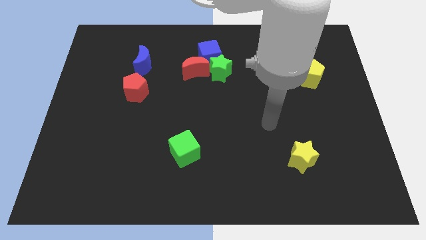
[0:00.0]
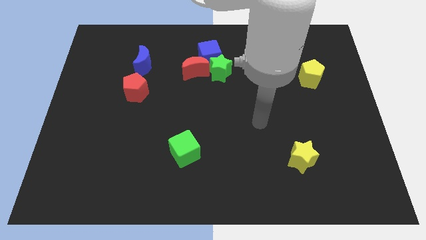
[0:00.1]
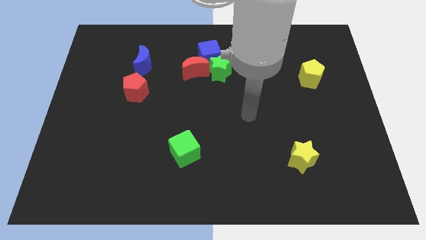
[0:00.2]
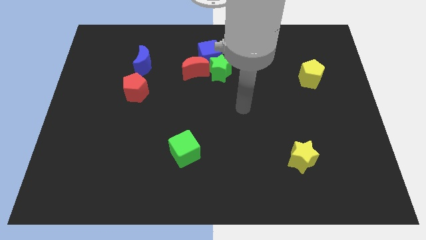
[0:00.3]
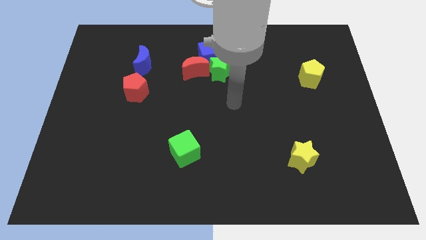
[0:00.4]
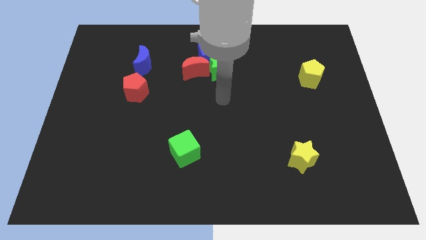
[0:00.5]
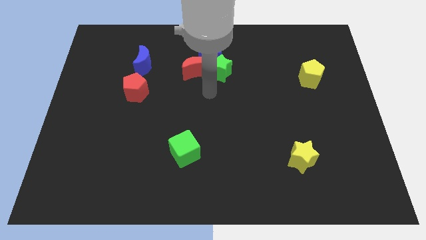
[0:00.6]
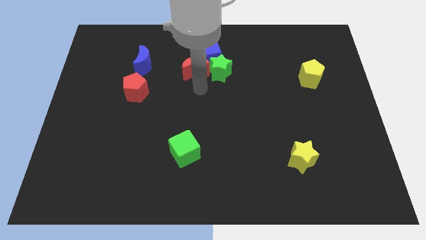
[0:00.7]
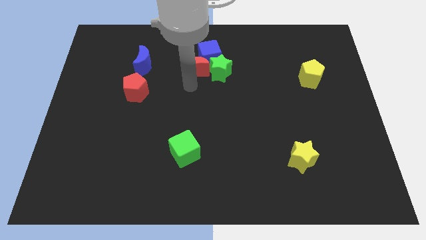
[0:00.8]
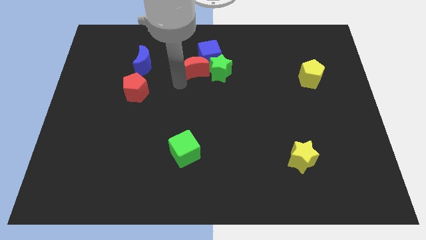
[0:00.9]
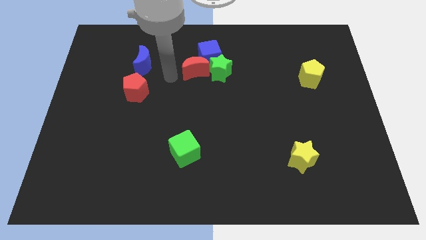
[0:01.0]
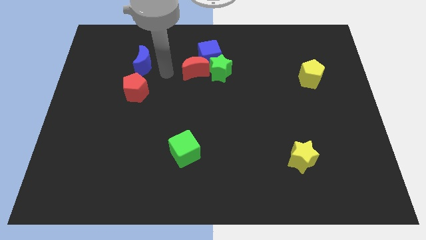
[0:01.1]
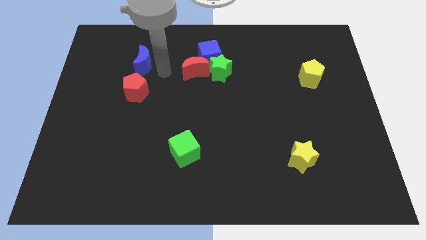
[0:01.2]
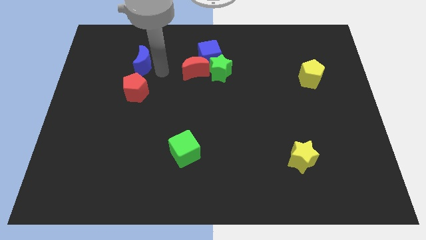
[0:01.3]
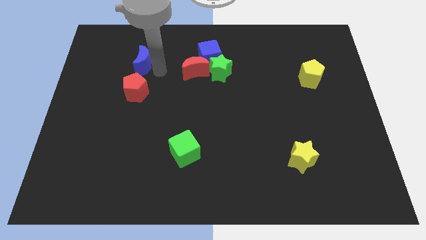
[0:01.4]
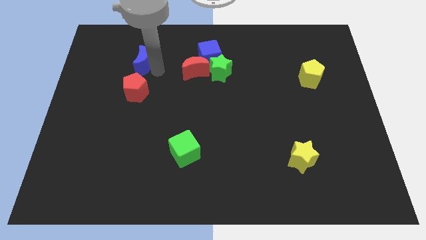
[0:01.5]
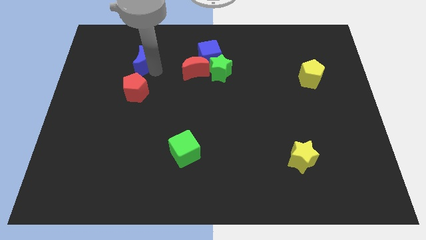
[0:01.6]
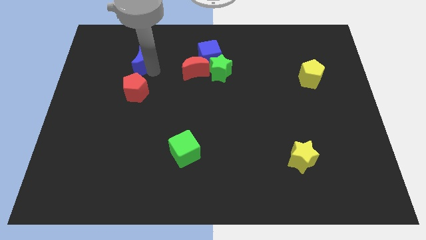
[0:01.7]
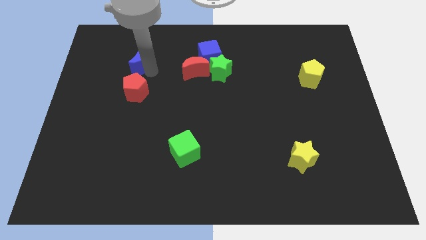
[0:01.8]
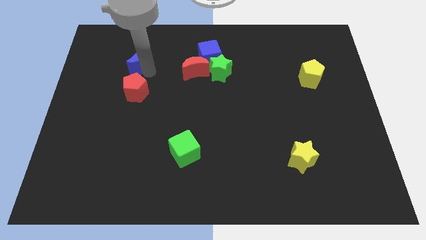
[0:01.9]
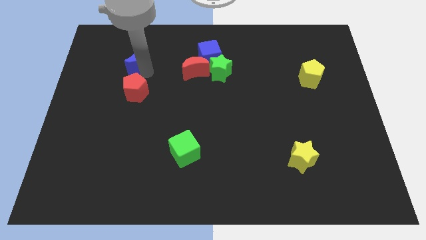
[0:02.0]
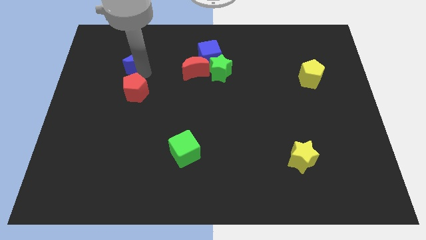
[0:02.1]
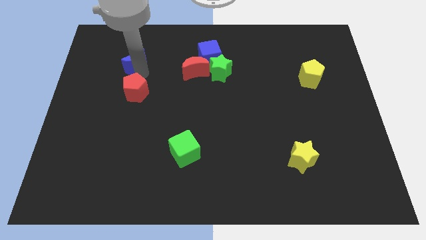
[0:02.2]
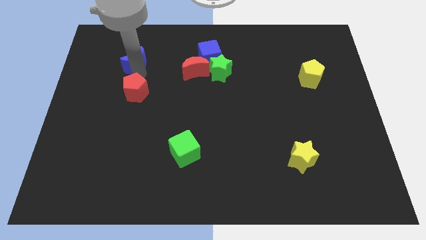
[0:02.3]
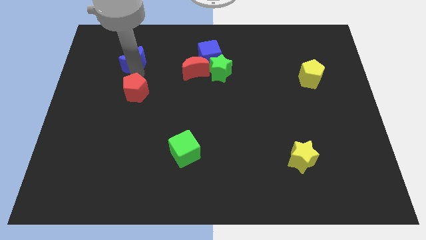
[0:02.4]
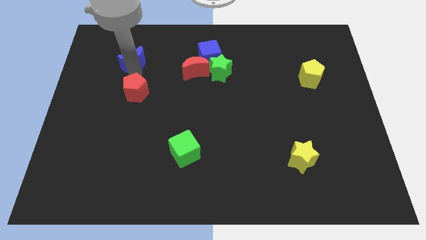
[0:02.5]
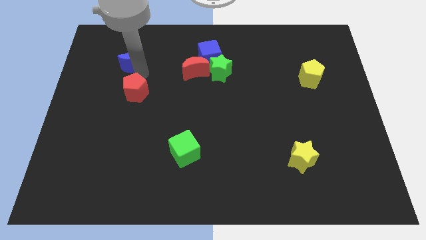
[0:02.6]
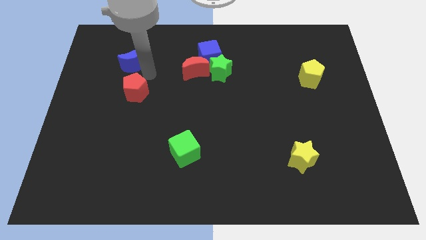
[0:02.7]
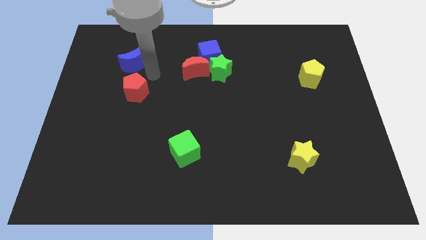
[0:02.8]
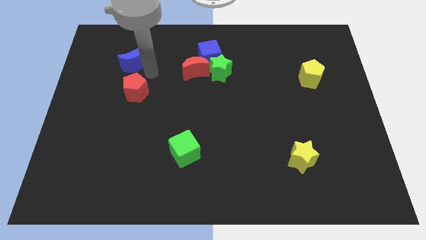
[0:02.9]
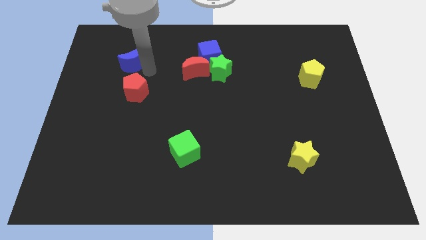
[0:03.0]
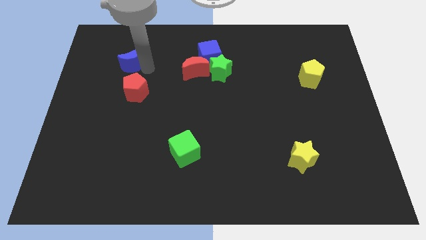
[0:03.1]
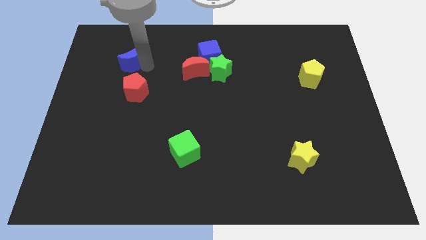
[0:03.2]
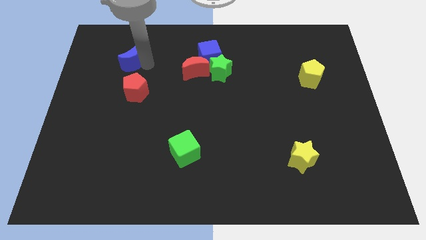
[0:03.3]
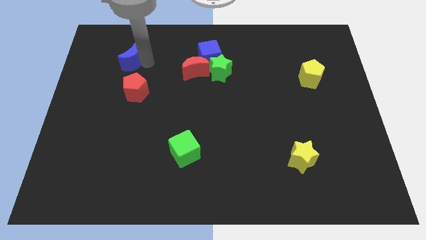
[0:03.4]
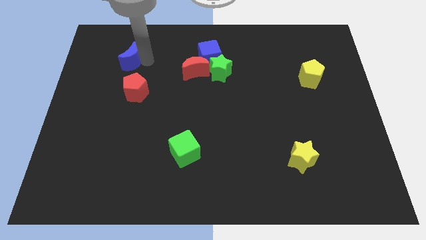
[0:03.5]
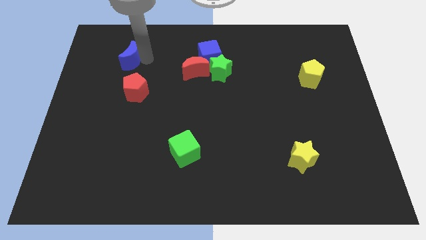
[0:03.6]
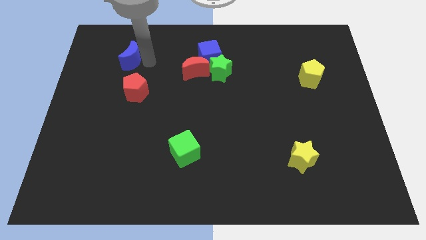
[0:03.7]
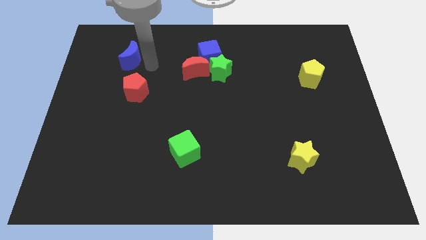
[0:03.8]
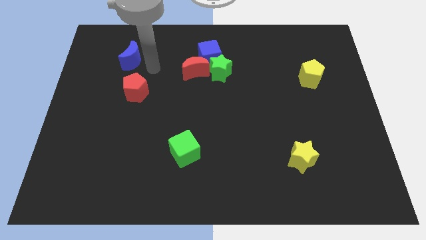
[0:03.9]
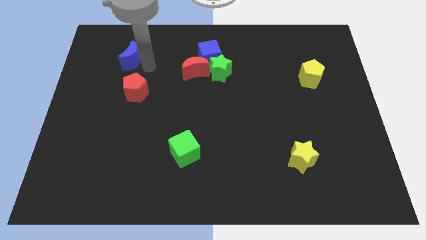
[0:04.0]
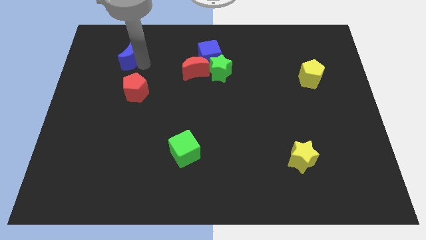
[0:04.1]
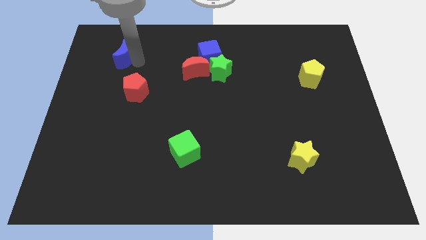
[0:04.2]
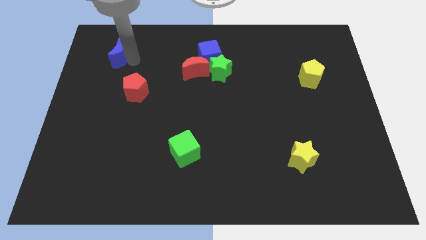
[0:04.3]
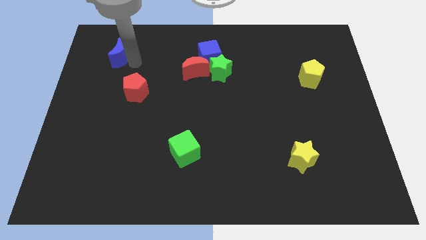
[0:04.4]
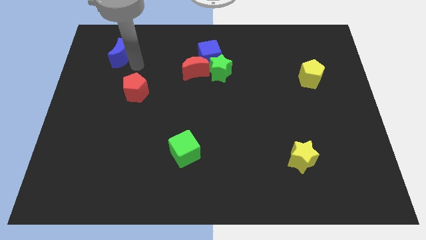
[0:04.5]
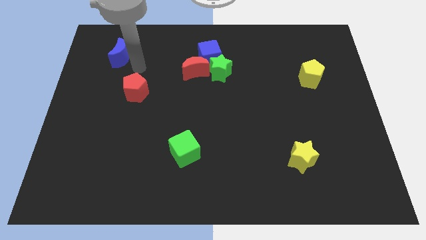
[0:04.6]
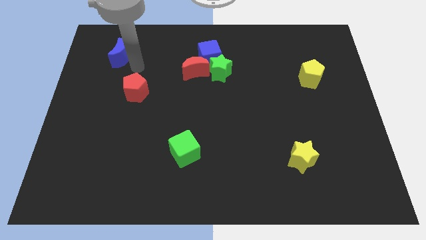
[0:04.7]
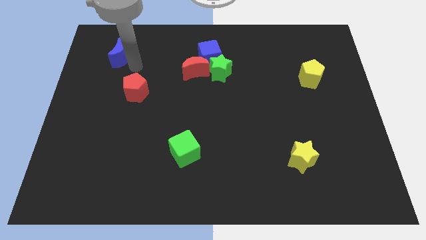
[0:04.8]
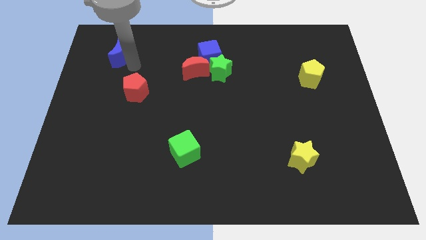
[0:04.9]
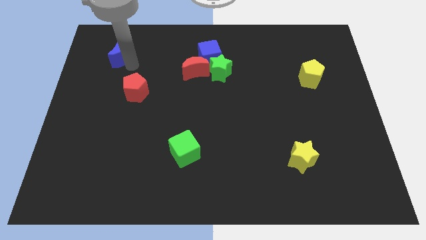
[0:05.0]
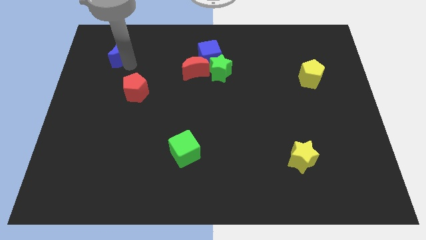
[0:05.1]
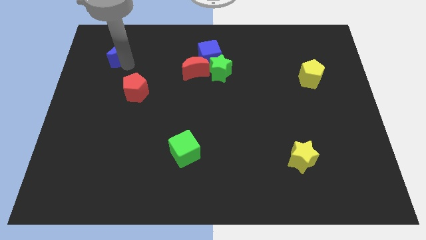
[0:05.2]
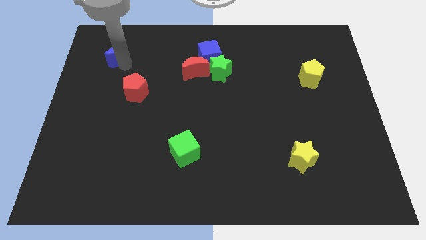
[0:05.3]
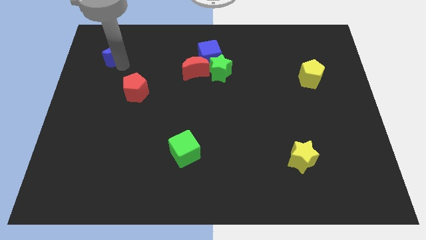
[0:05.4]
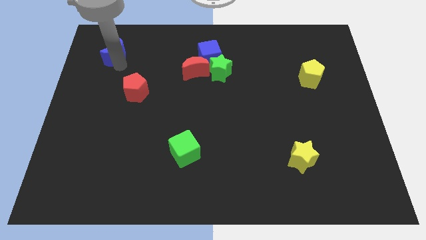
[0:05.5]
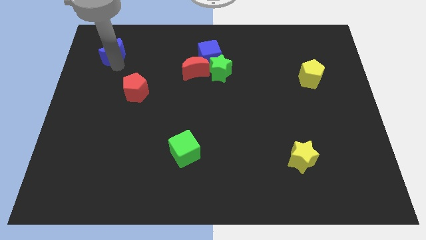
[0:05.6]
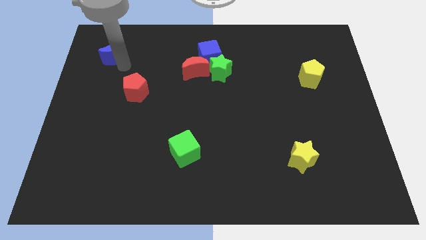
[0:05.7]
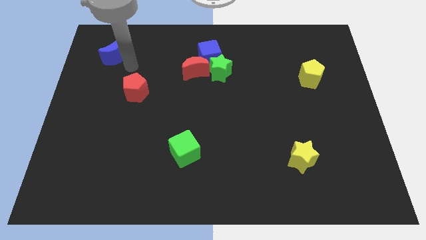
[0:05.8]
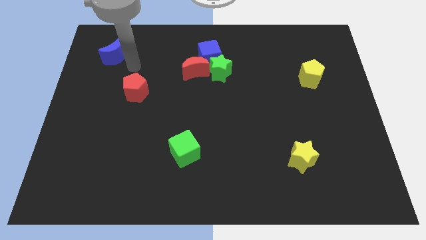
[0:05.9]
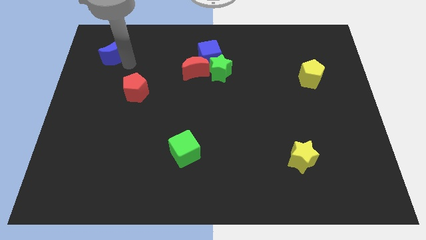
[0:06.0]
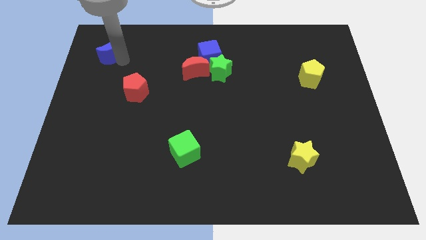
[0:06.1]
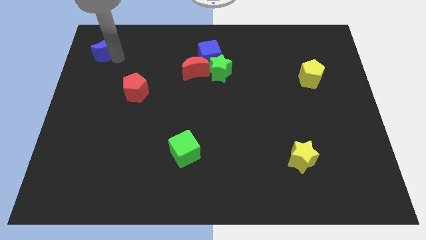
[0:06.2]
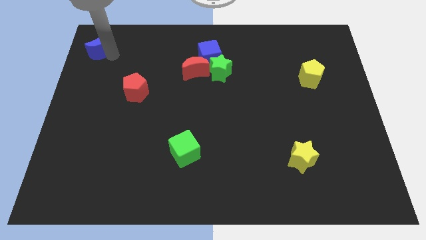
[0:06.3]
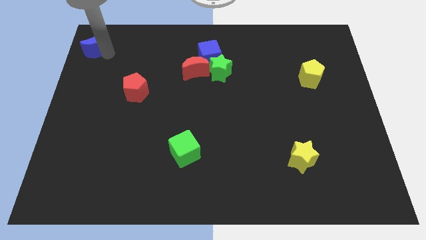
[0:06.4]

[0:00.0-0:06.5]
push the blue moon to the top left of the board
